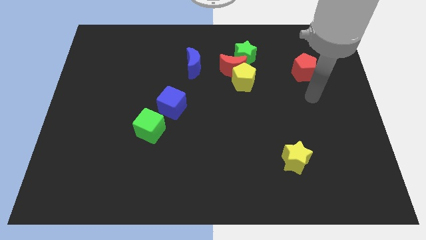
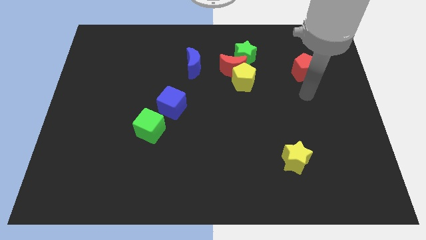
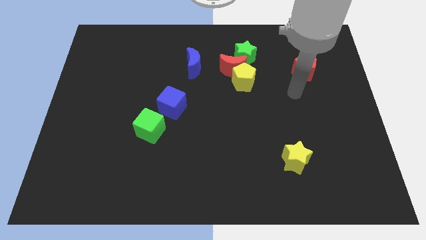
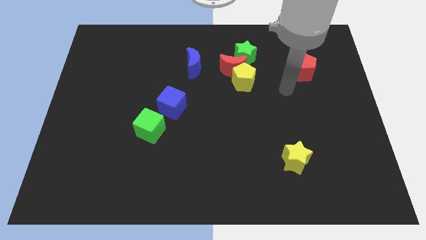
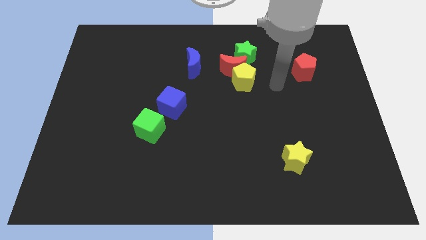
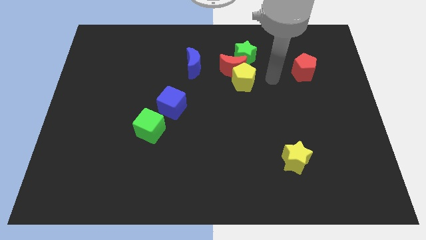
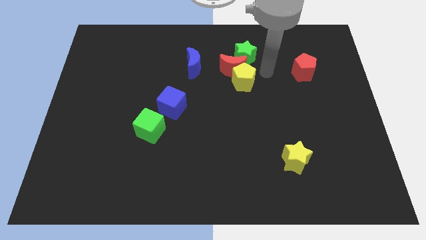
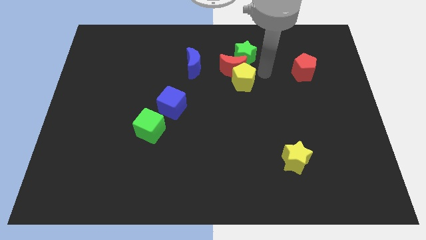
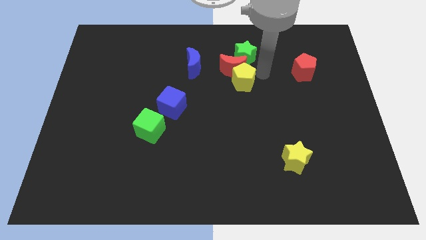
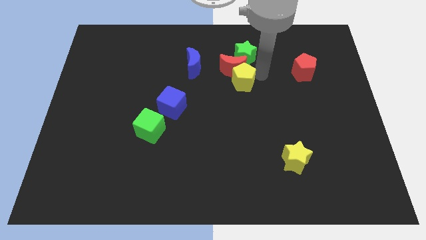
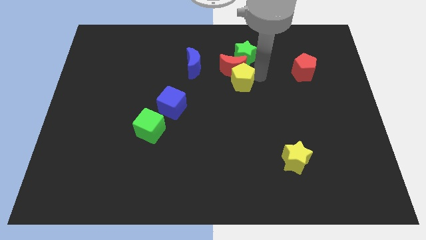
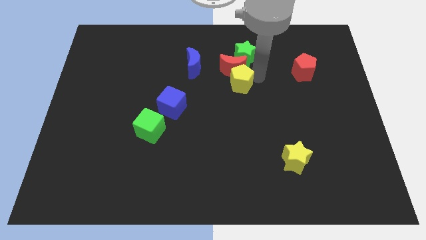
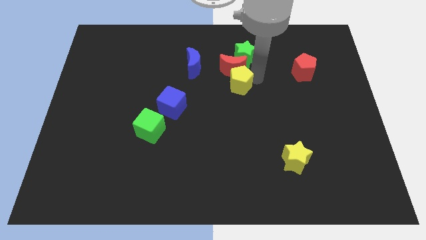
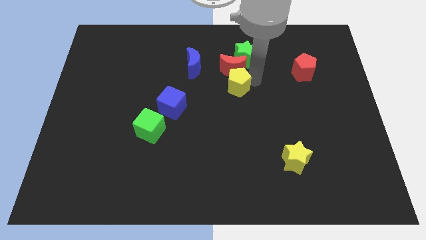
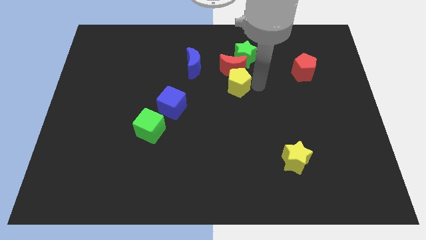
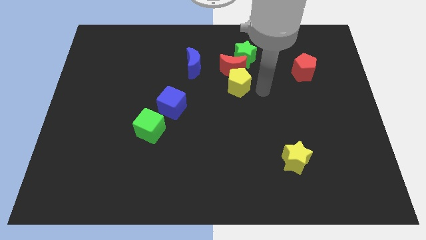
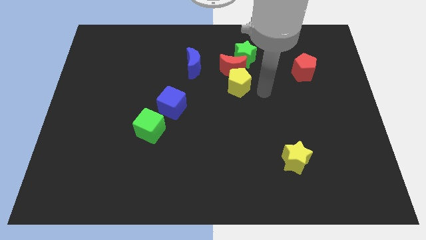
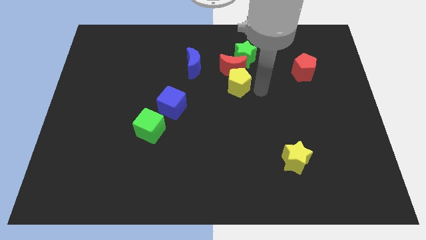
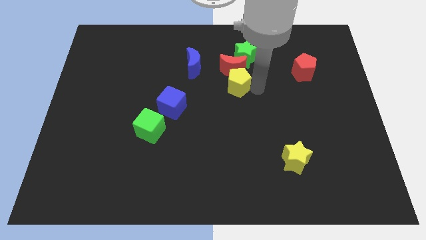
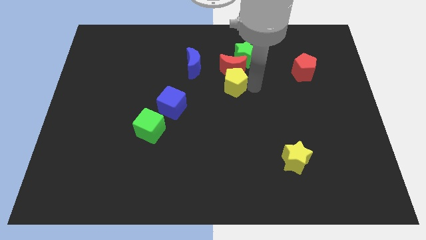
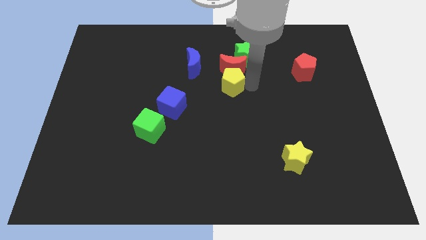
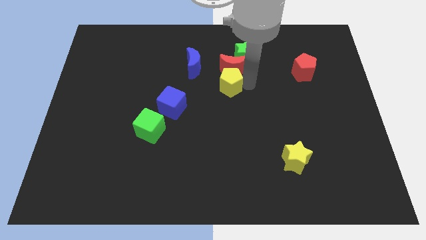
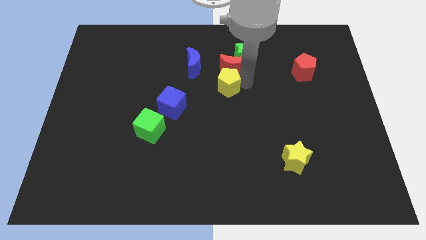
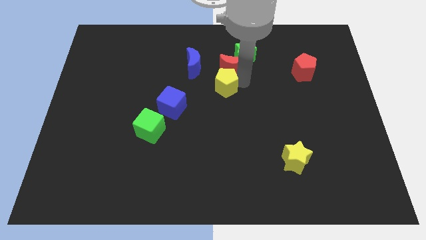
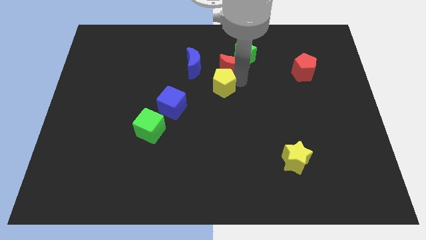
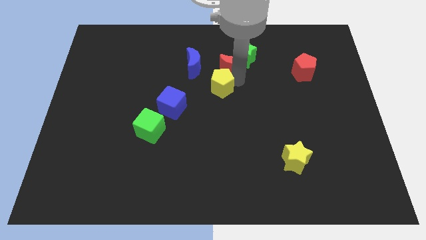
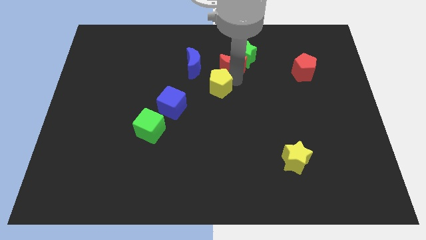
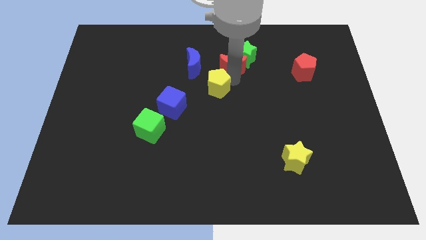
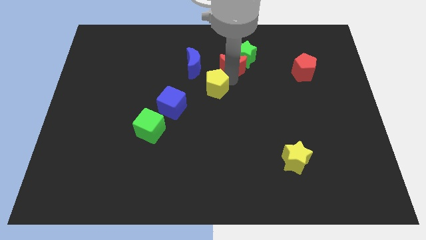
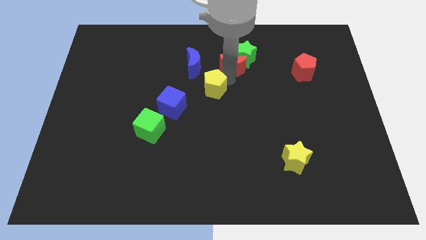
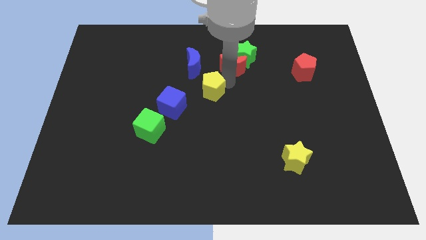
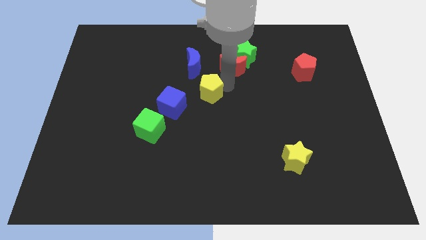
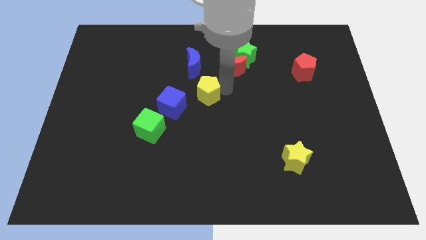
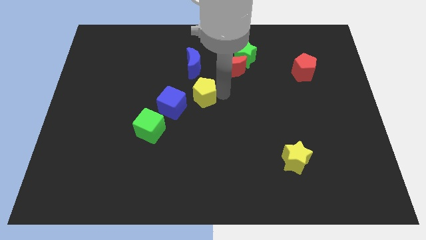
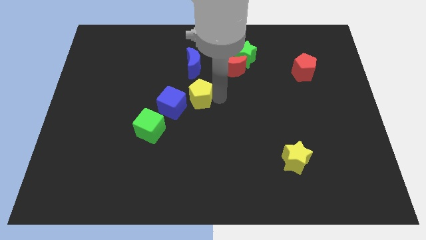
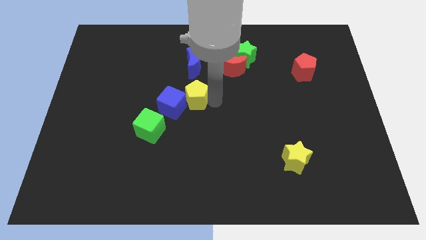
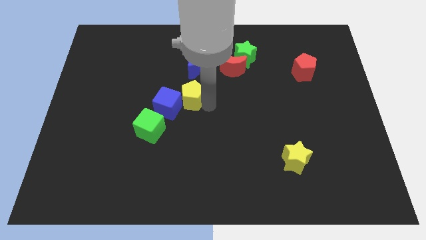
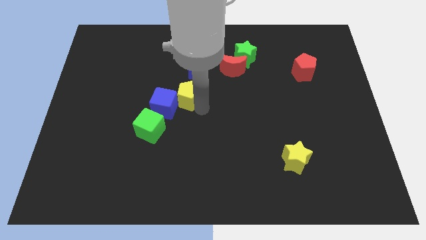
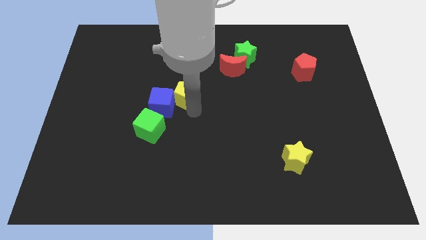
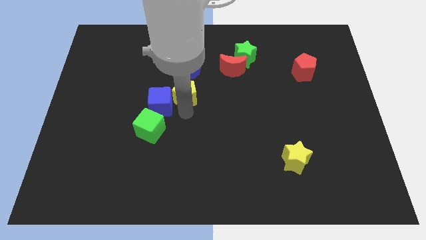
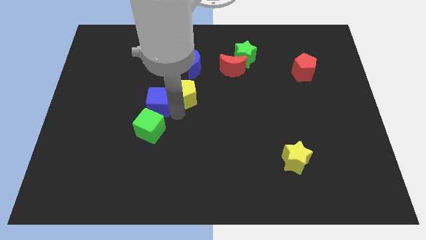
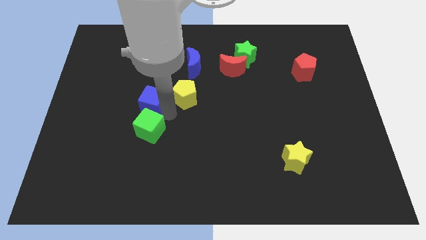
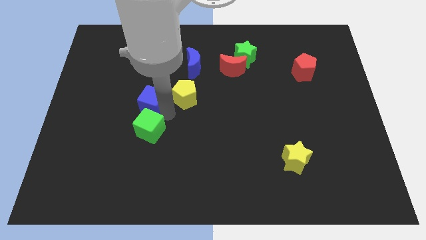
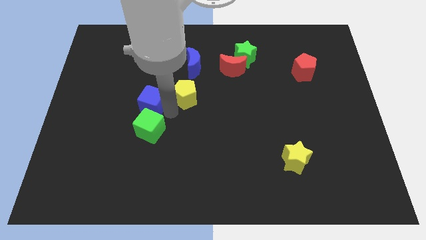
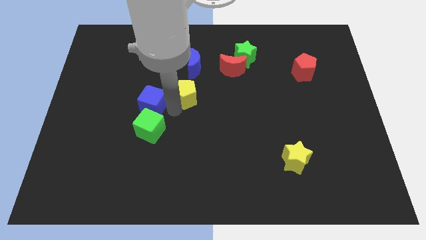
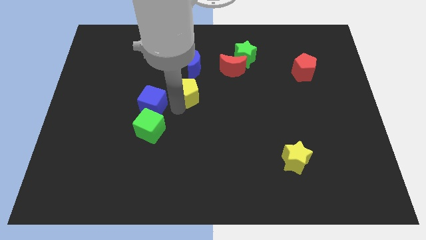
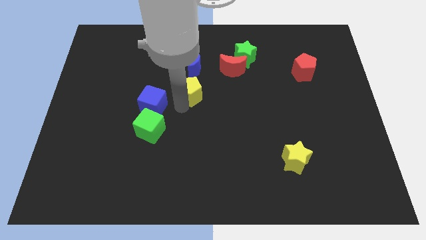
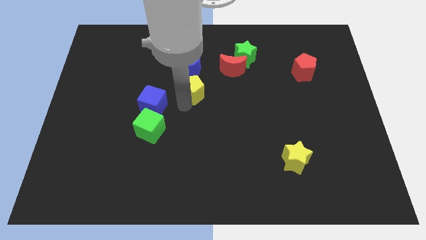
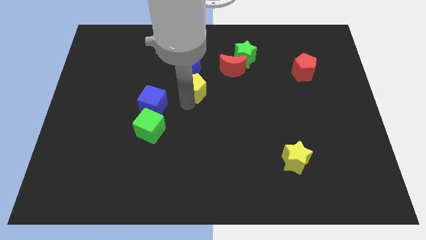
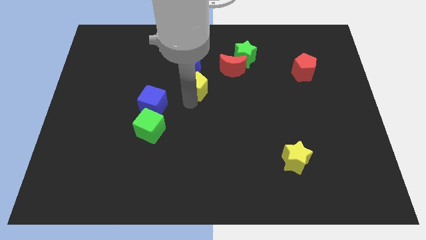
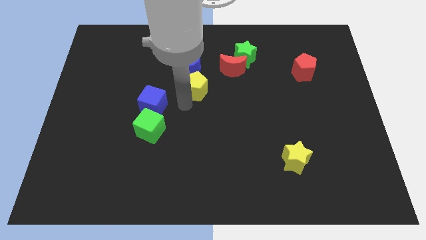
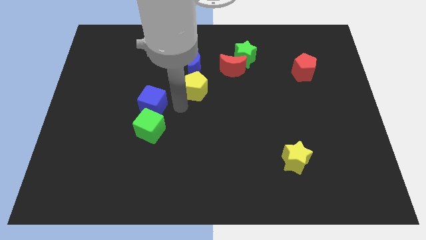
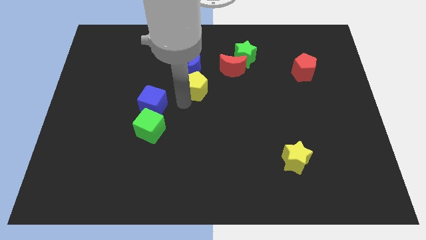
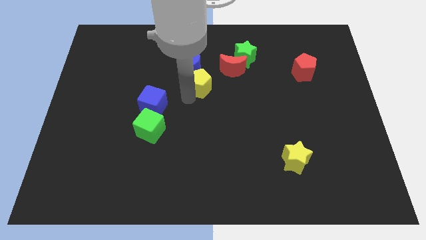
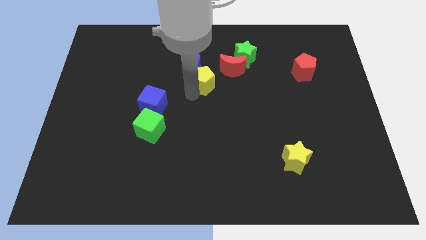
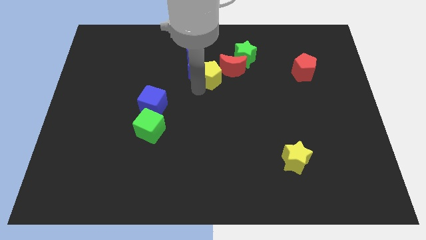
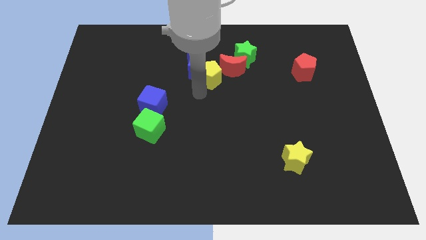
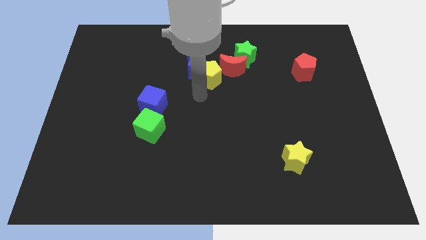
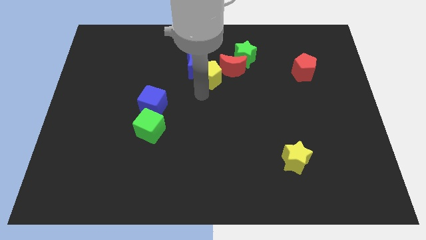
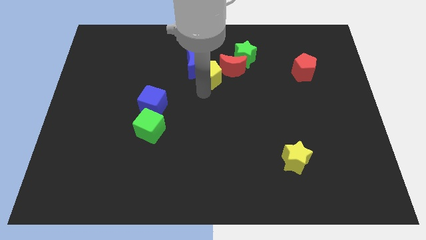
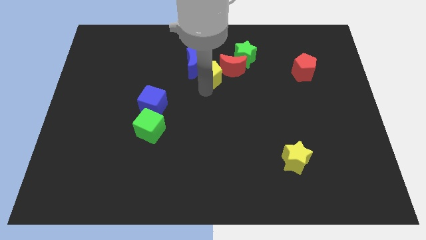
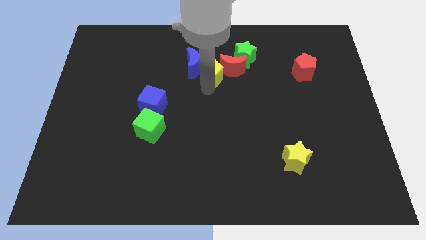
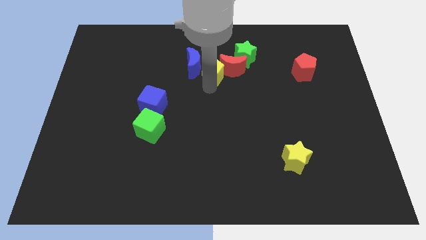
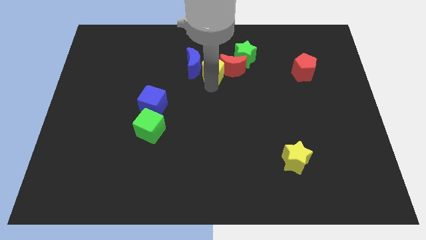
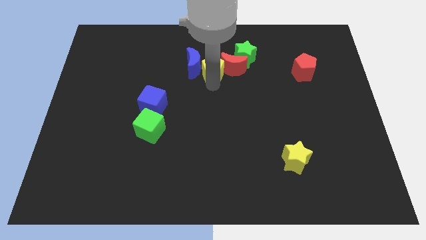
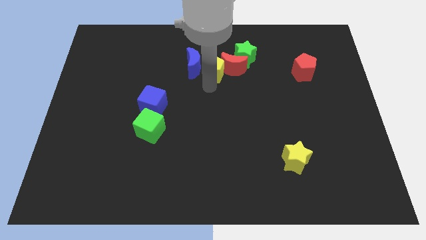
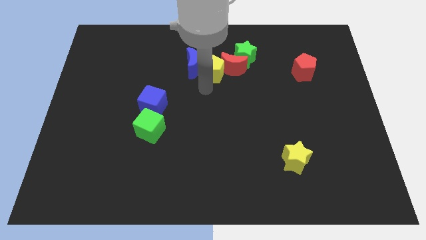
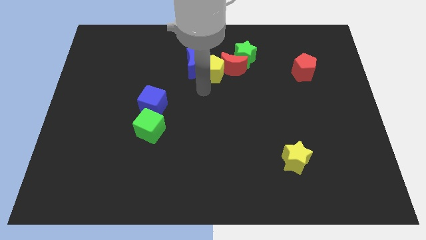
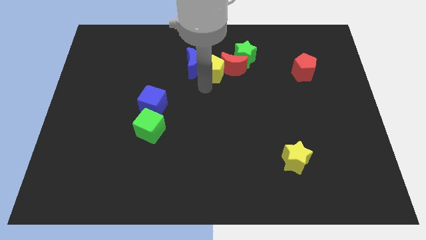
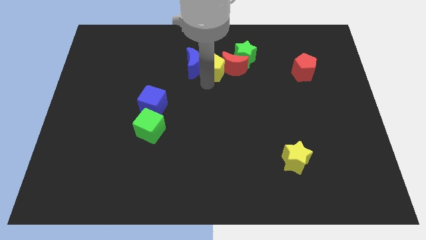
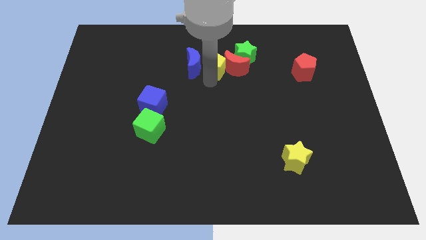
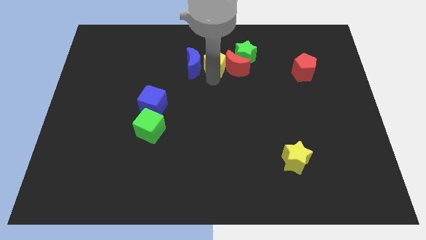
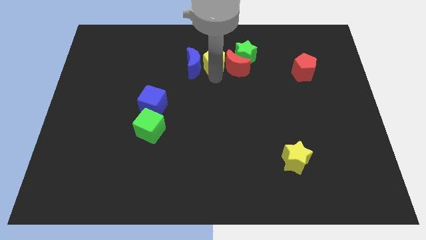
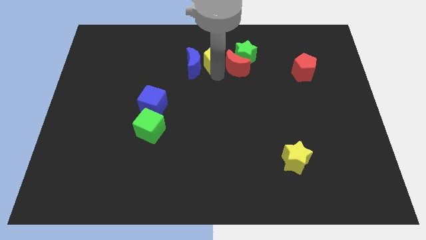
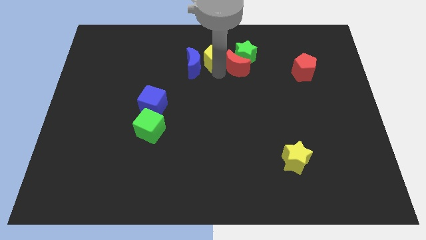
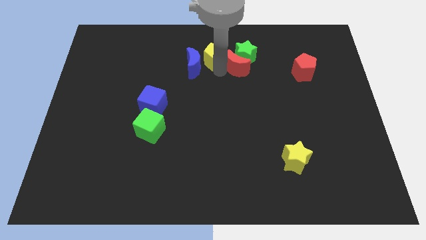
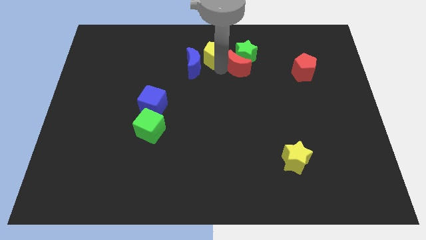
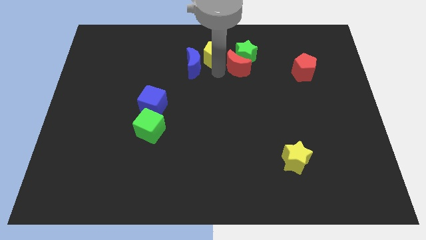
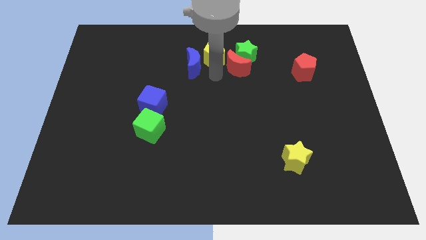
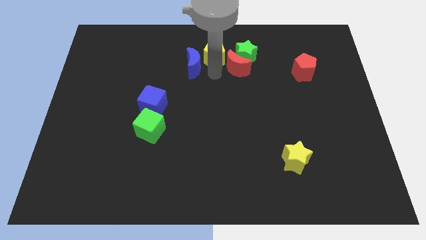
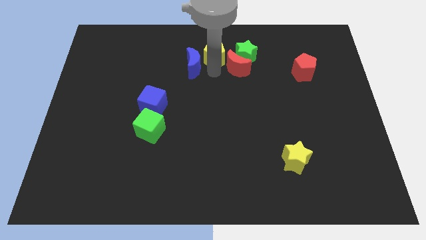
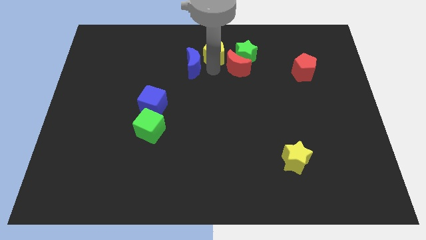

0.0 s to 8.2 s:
push the yellow pentagon to the towards your base
